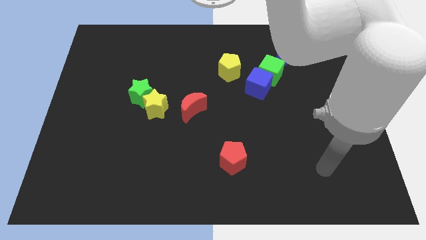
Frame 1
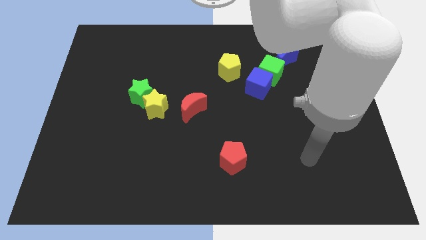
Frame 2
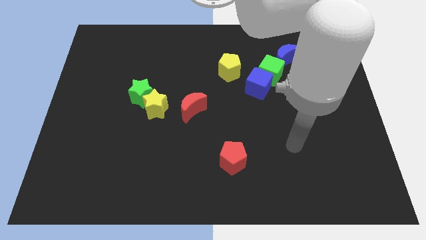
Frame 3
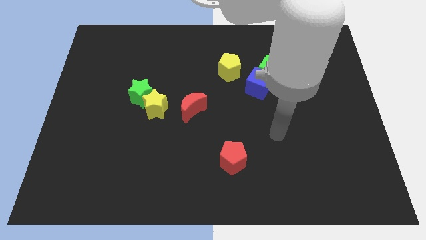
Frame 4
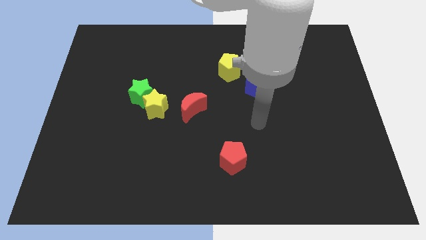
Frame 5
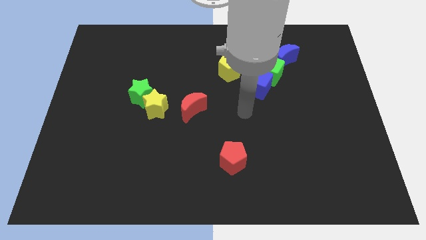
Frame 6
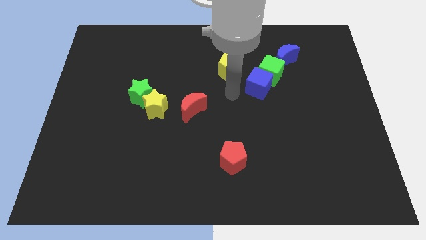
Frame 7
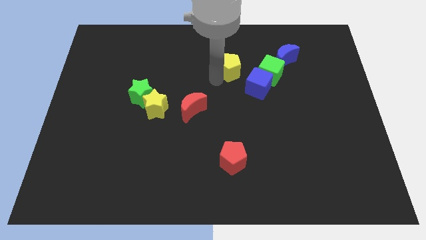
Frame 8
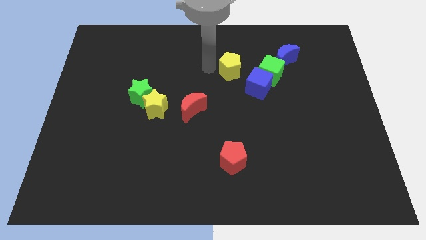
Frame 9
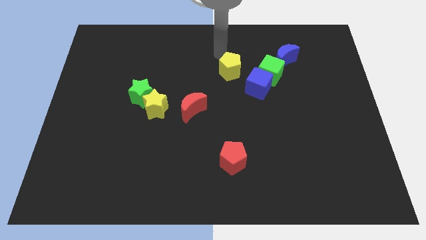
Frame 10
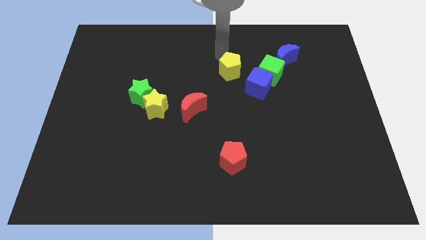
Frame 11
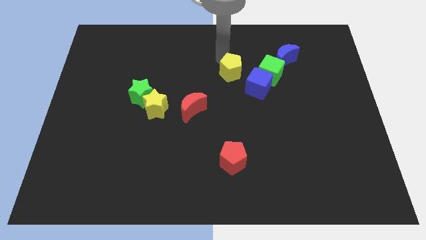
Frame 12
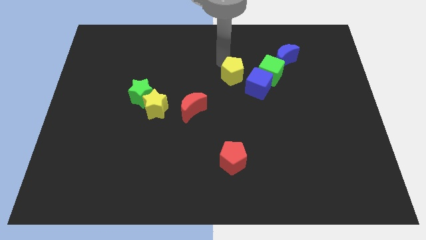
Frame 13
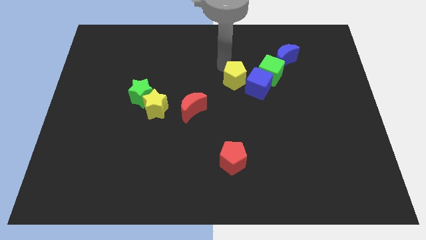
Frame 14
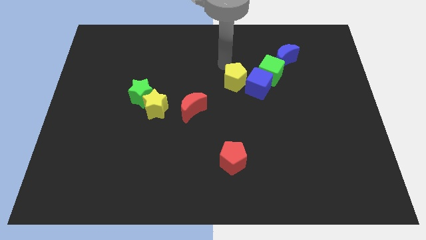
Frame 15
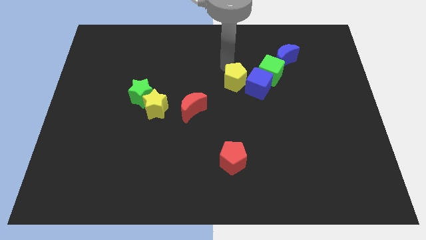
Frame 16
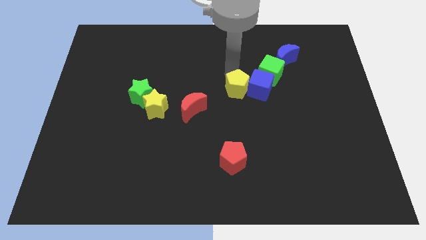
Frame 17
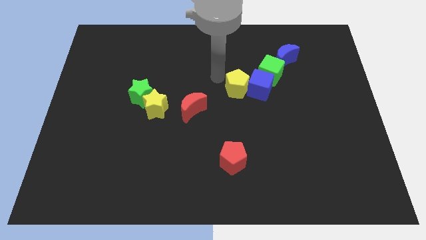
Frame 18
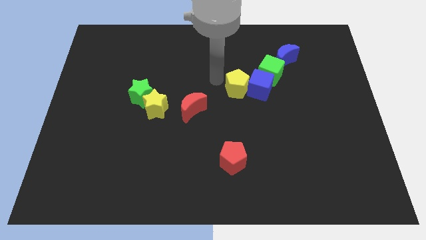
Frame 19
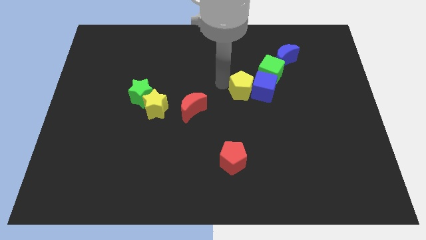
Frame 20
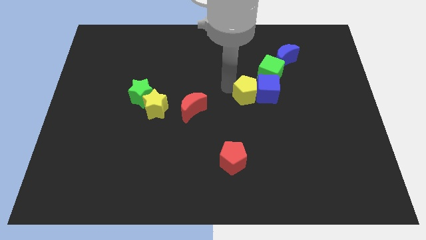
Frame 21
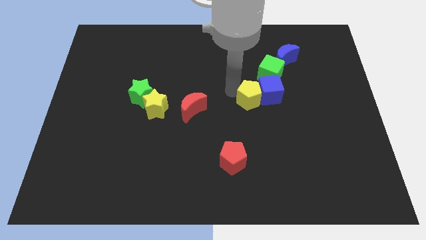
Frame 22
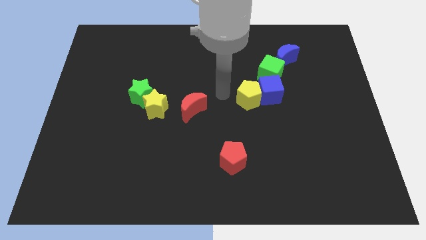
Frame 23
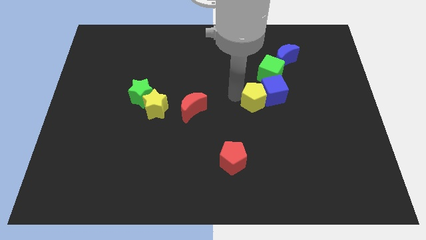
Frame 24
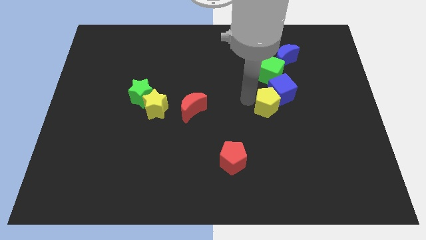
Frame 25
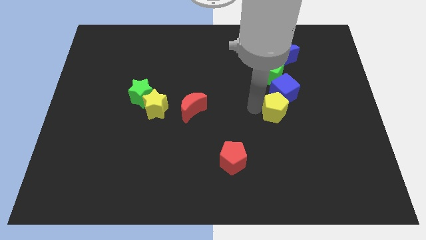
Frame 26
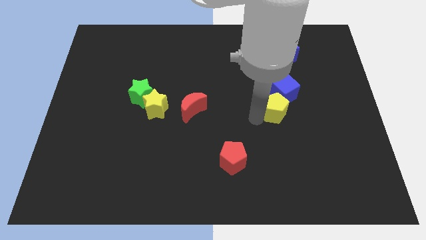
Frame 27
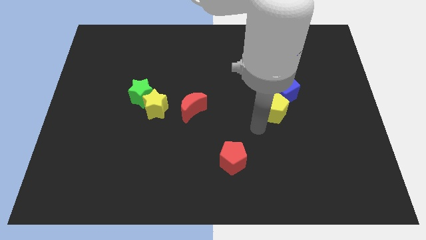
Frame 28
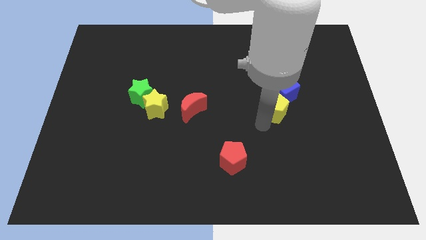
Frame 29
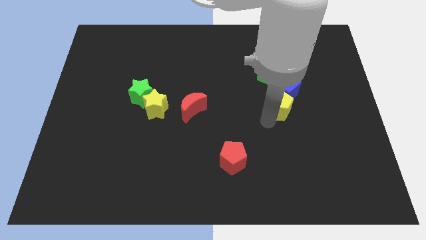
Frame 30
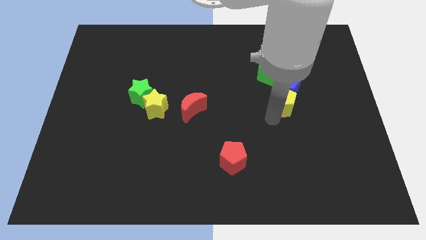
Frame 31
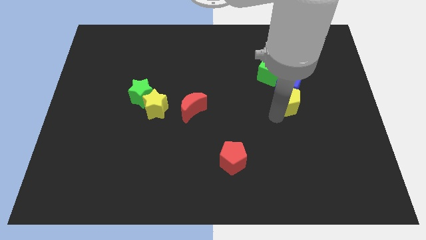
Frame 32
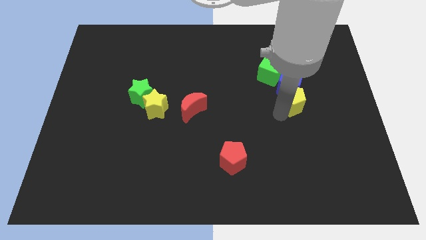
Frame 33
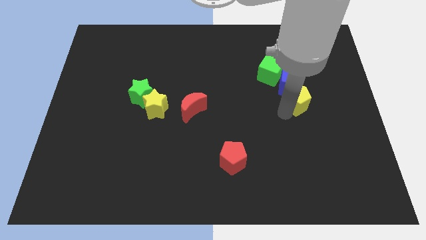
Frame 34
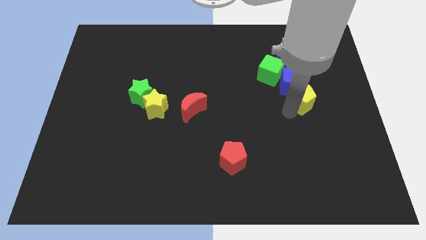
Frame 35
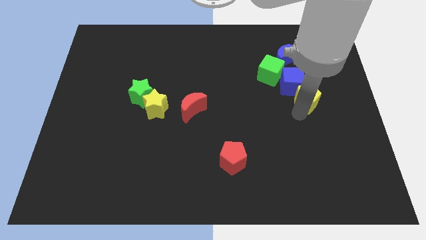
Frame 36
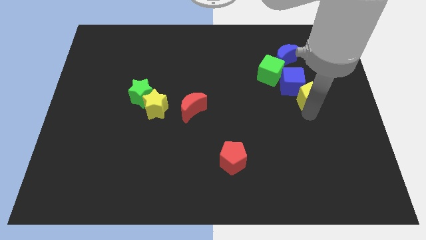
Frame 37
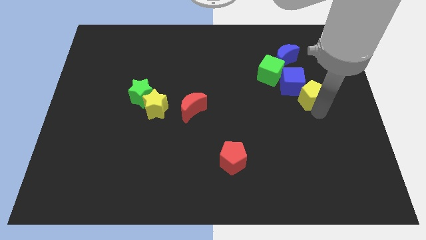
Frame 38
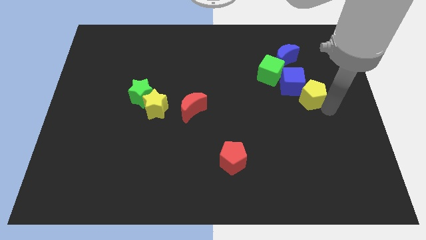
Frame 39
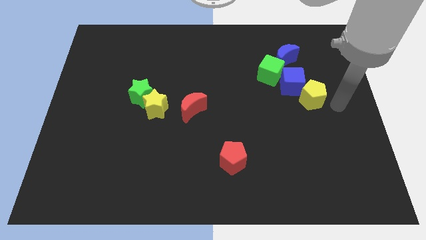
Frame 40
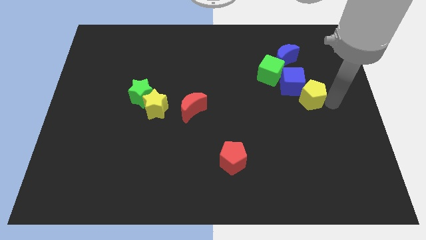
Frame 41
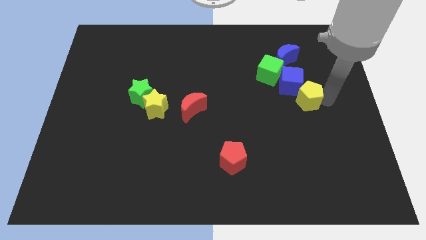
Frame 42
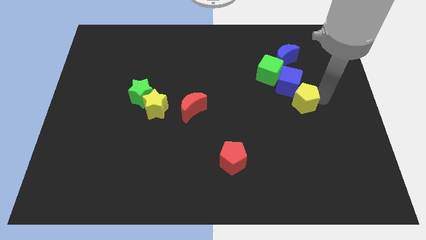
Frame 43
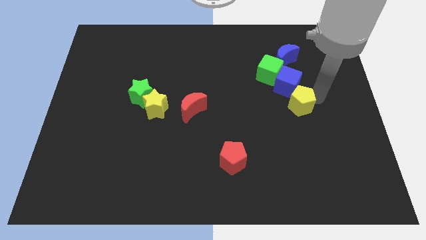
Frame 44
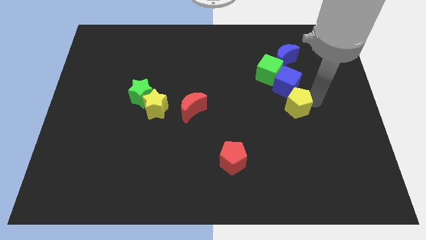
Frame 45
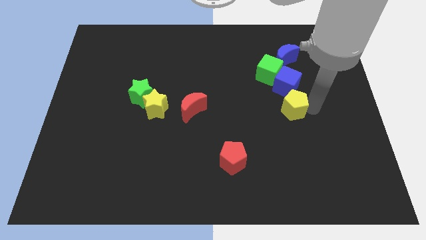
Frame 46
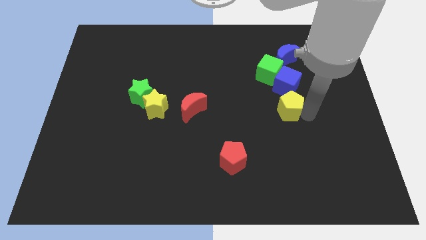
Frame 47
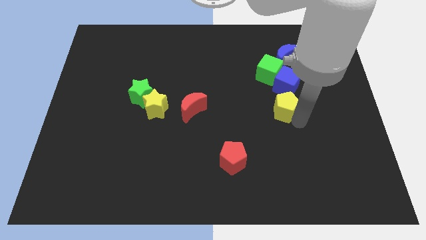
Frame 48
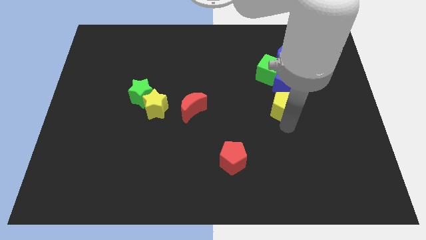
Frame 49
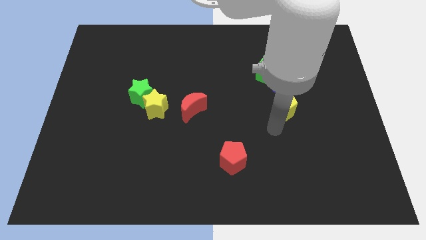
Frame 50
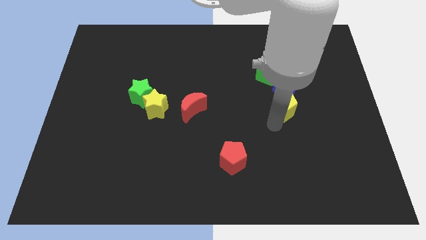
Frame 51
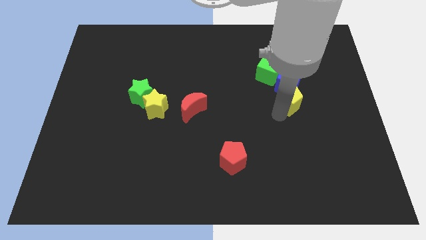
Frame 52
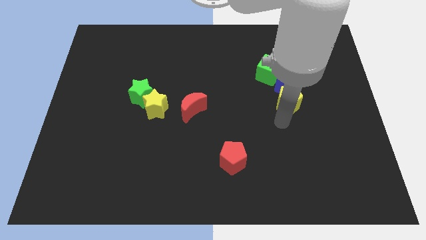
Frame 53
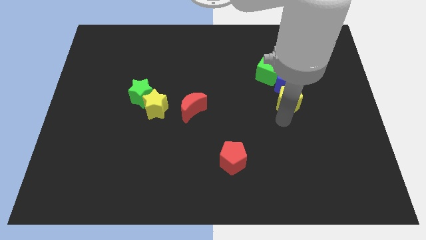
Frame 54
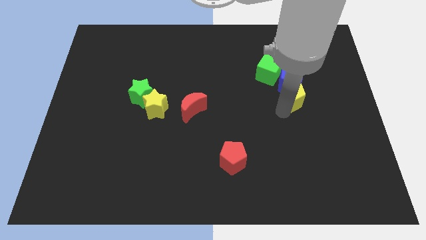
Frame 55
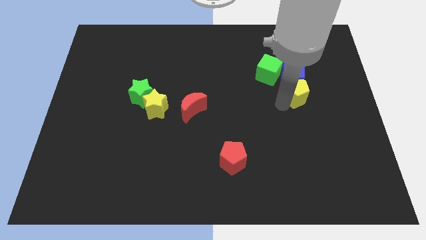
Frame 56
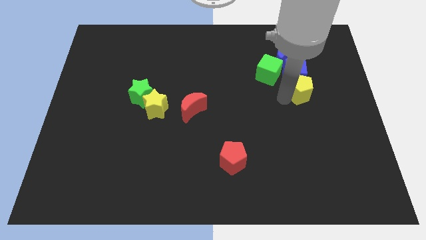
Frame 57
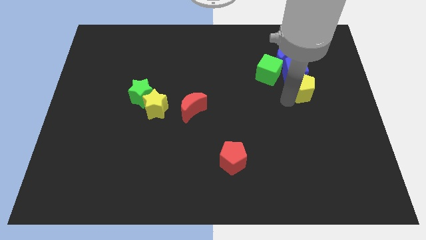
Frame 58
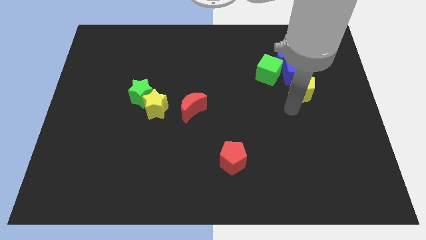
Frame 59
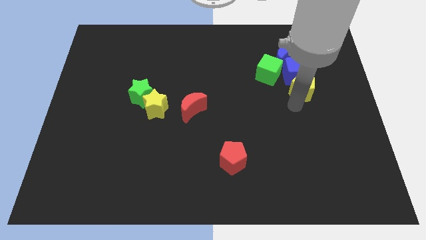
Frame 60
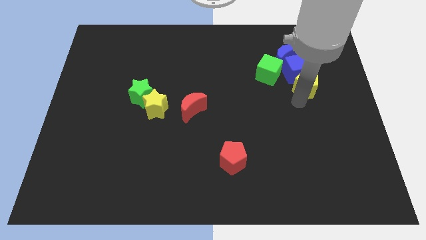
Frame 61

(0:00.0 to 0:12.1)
push the yellow pentagon to the right side of the green cube

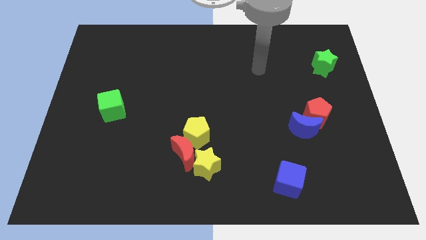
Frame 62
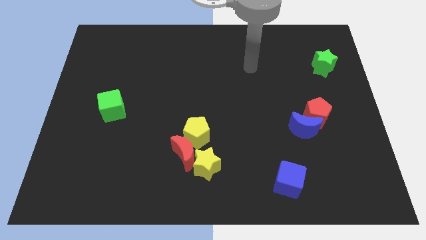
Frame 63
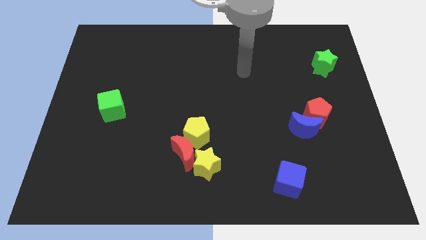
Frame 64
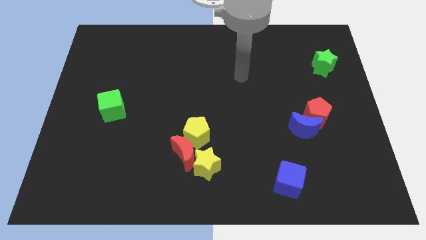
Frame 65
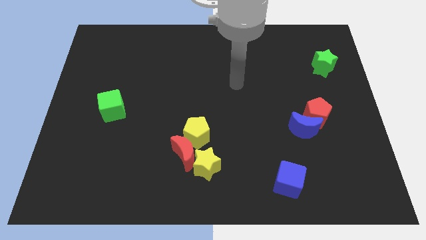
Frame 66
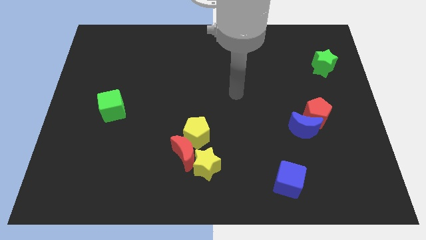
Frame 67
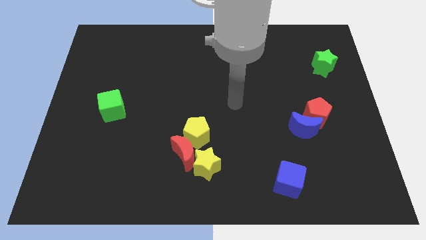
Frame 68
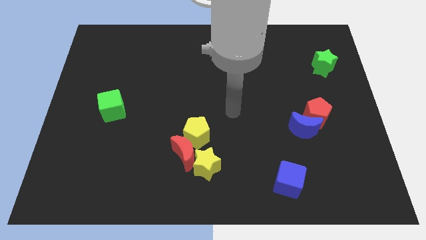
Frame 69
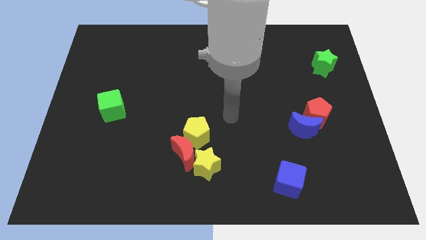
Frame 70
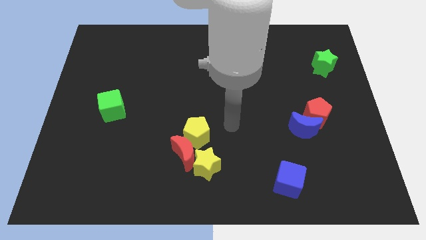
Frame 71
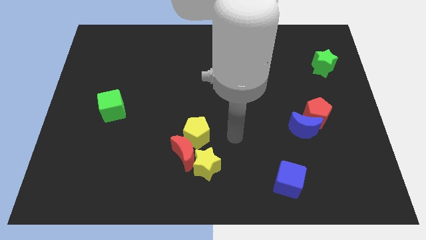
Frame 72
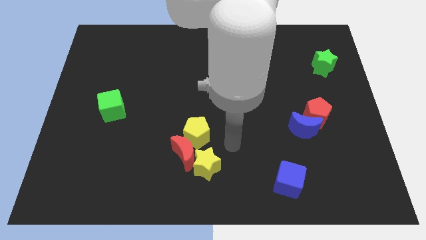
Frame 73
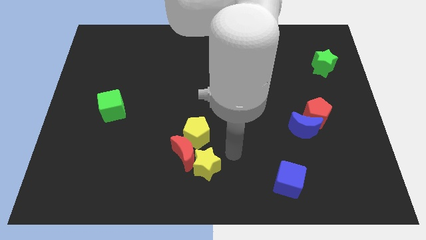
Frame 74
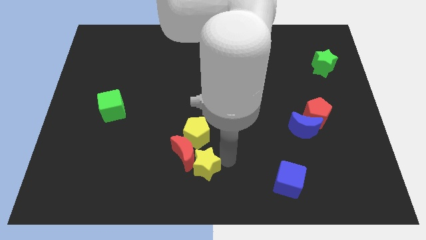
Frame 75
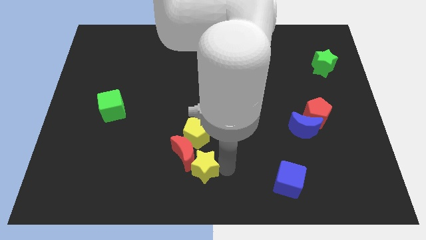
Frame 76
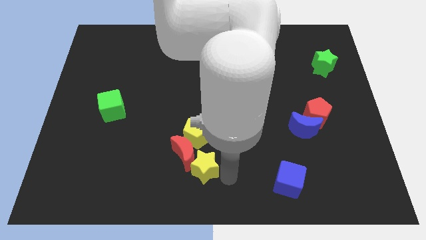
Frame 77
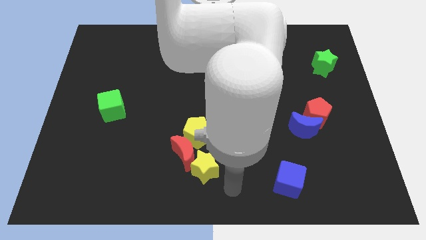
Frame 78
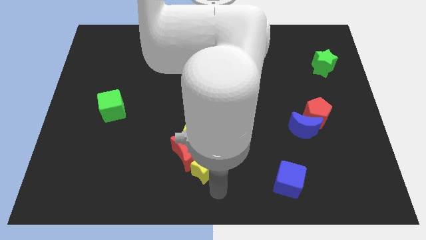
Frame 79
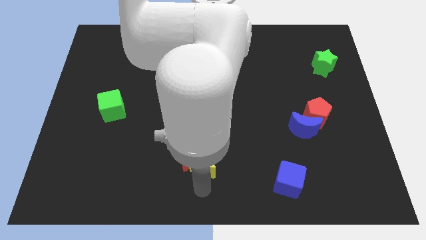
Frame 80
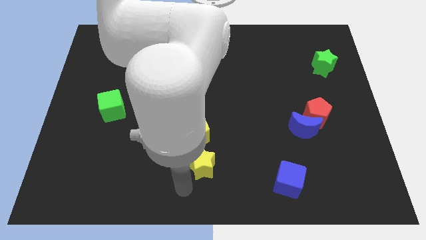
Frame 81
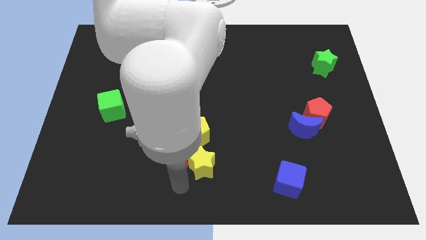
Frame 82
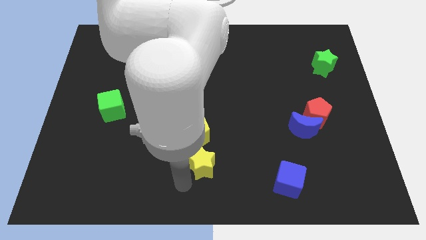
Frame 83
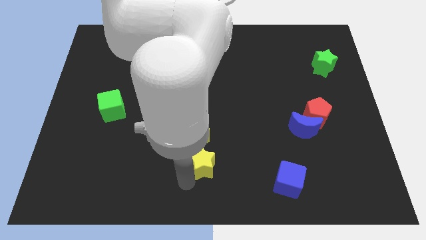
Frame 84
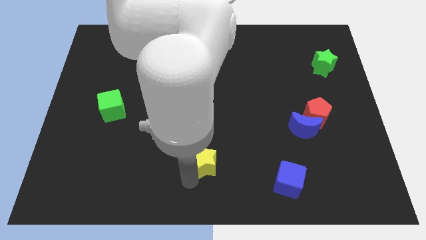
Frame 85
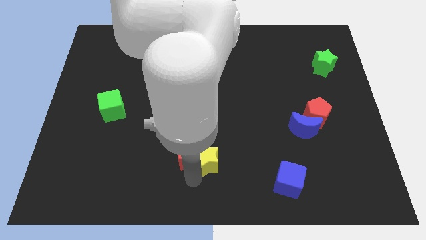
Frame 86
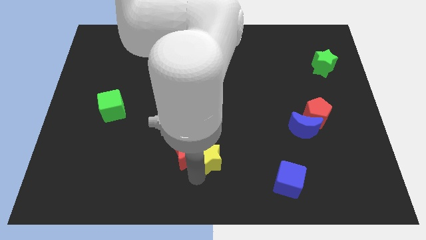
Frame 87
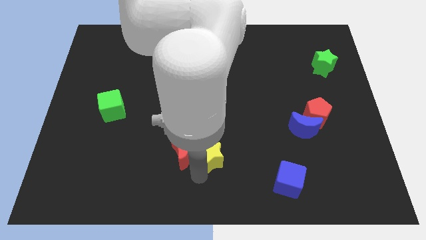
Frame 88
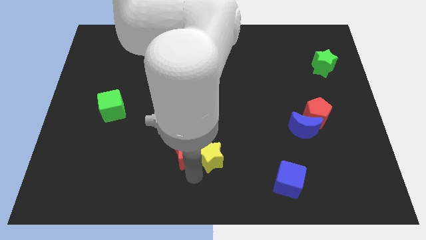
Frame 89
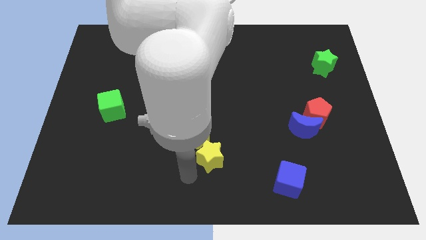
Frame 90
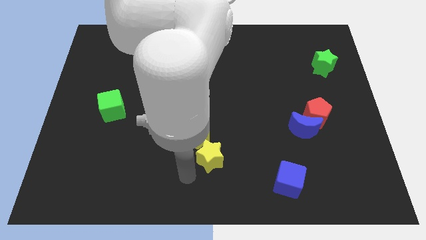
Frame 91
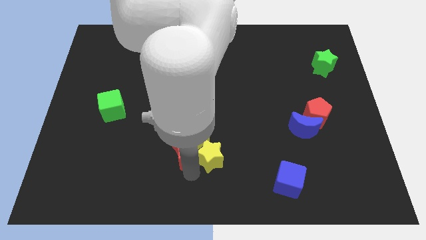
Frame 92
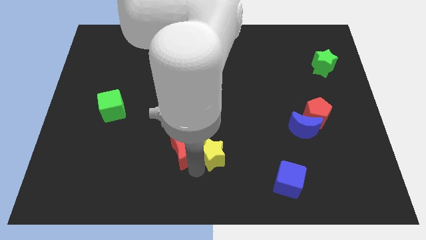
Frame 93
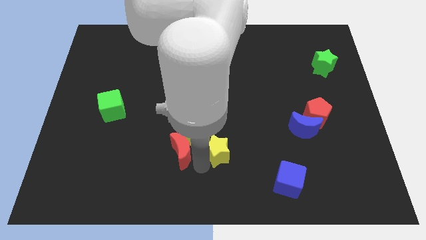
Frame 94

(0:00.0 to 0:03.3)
push the yellow star just right of the yellow pentagon
